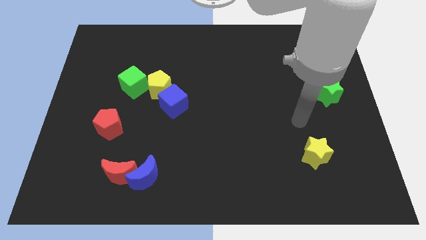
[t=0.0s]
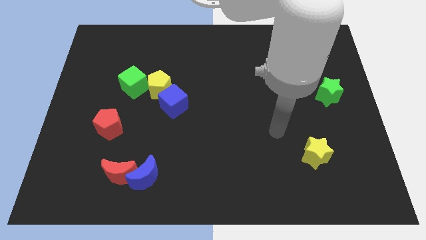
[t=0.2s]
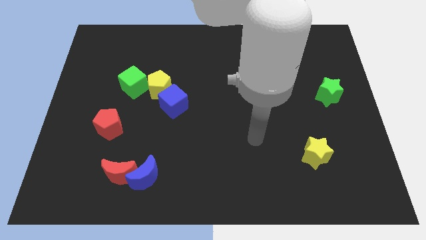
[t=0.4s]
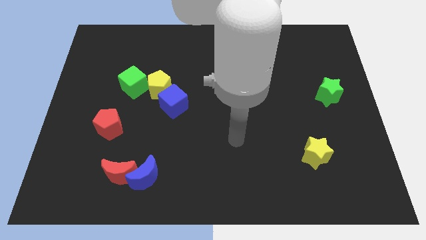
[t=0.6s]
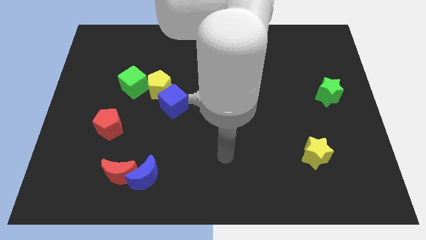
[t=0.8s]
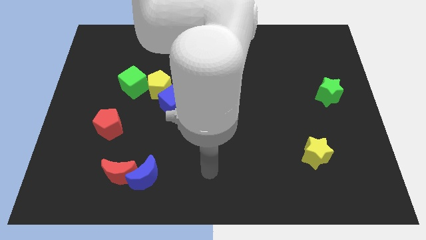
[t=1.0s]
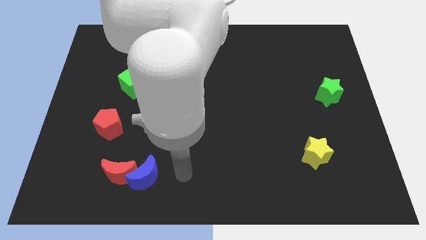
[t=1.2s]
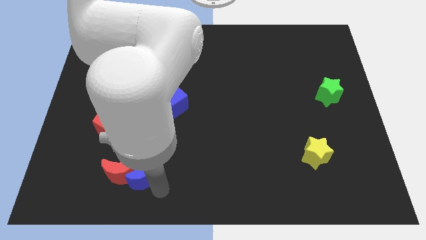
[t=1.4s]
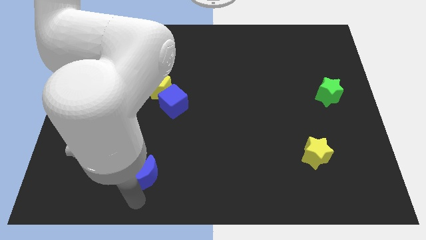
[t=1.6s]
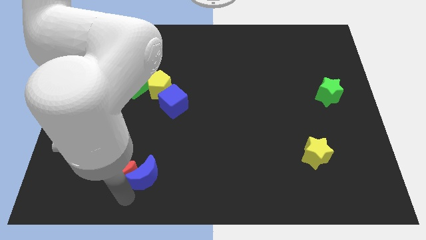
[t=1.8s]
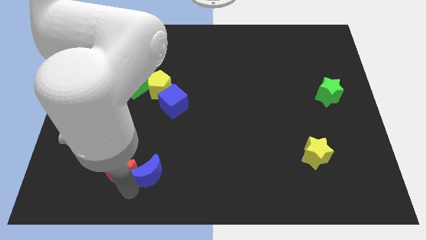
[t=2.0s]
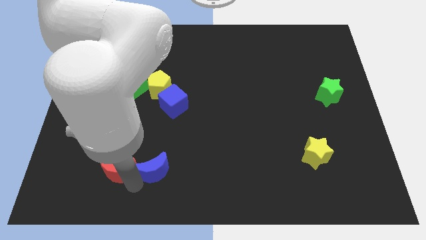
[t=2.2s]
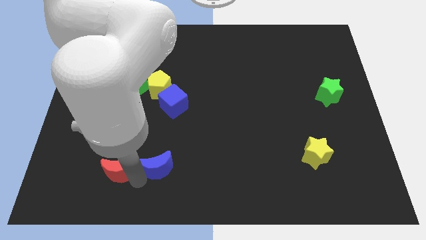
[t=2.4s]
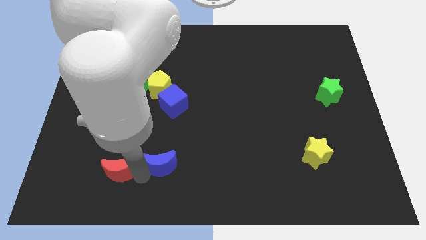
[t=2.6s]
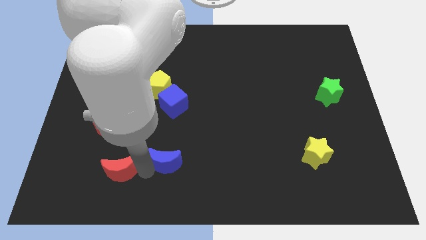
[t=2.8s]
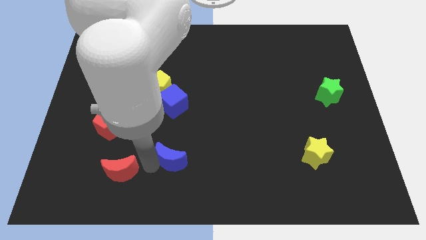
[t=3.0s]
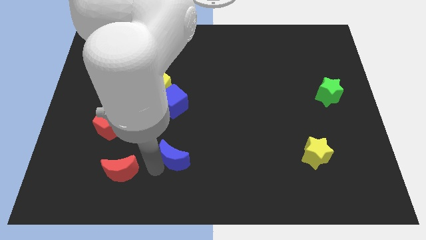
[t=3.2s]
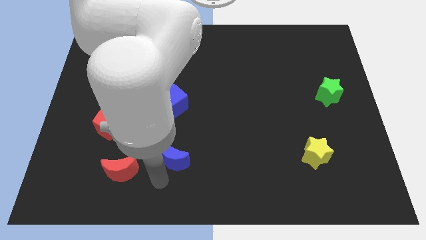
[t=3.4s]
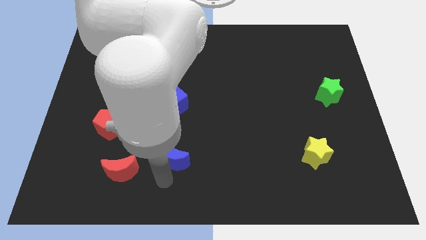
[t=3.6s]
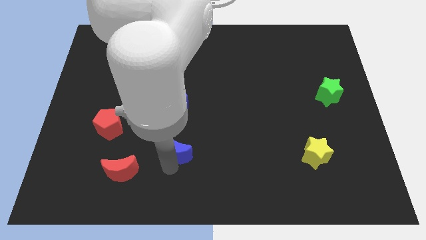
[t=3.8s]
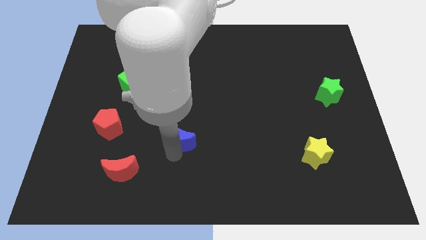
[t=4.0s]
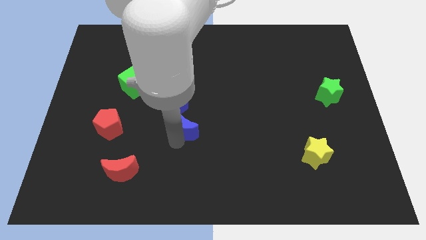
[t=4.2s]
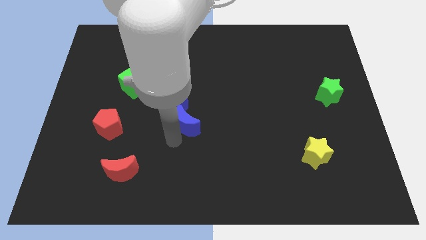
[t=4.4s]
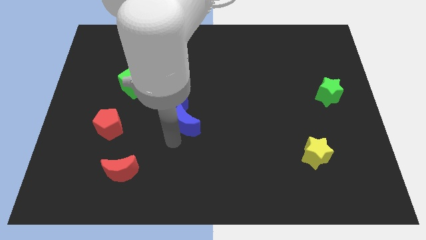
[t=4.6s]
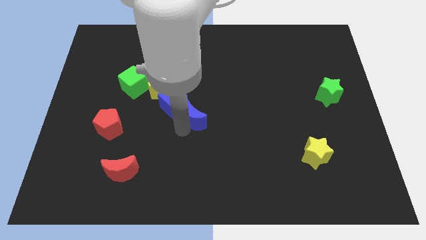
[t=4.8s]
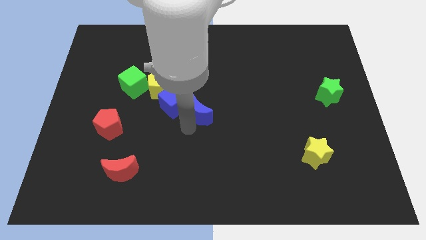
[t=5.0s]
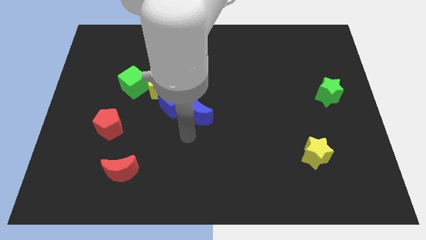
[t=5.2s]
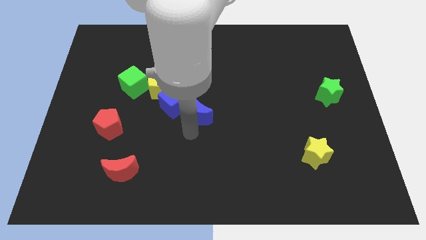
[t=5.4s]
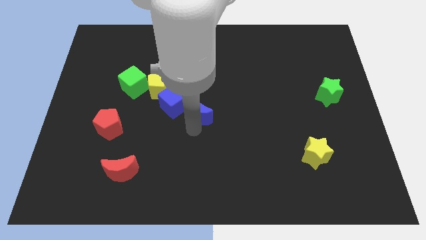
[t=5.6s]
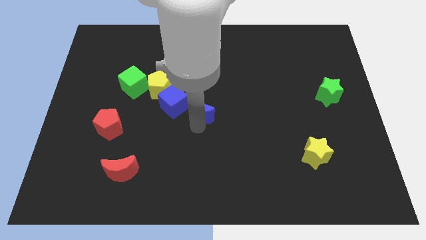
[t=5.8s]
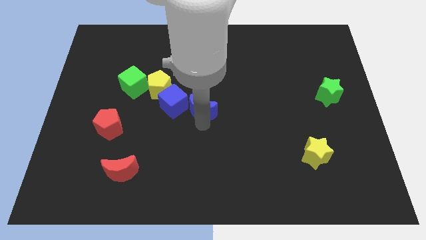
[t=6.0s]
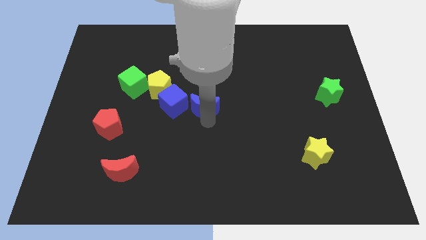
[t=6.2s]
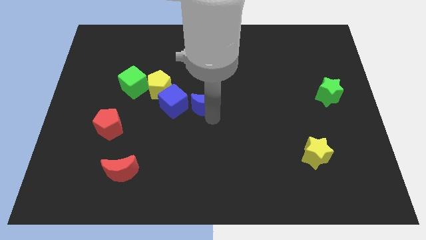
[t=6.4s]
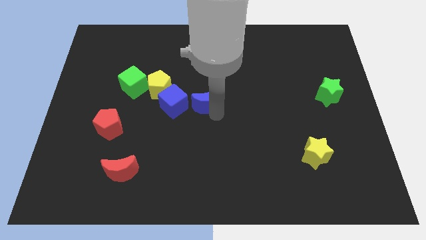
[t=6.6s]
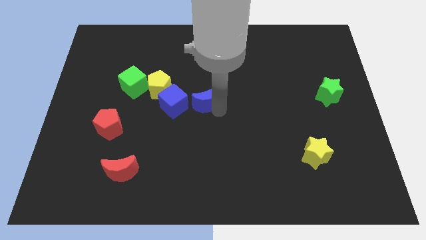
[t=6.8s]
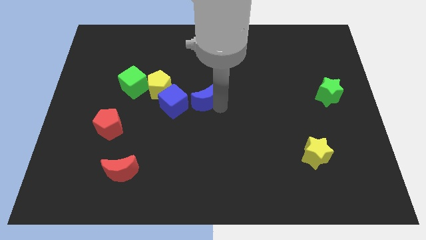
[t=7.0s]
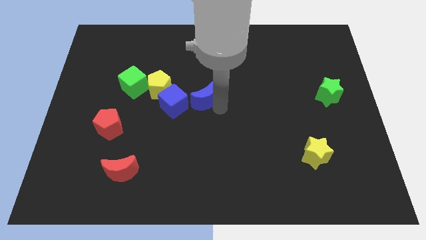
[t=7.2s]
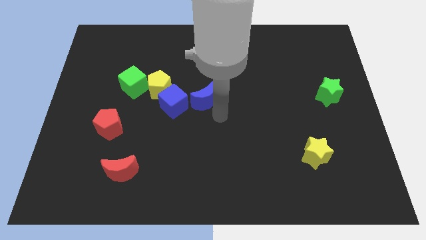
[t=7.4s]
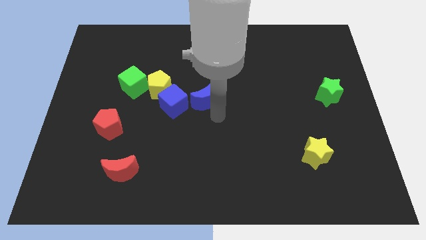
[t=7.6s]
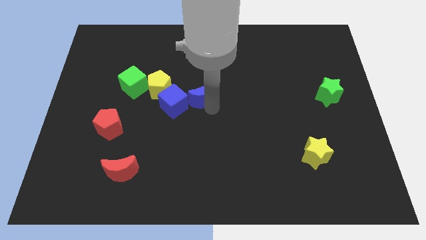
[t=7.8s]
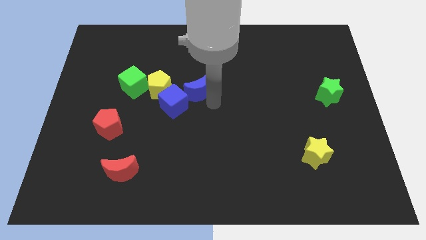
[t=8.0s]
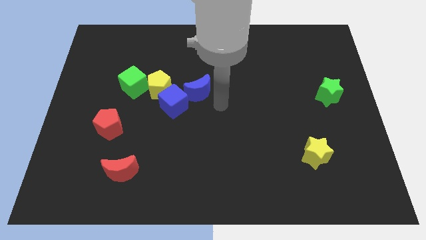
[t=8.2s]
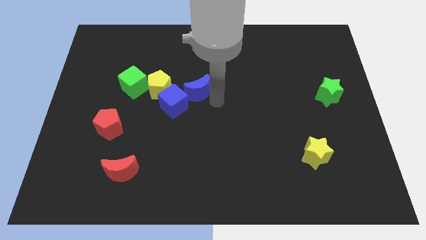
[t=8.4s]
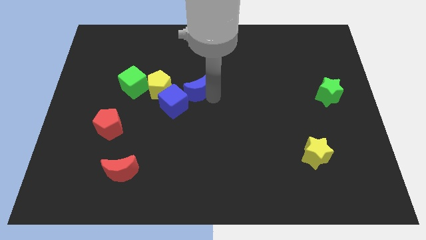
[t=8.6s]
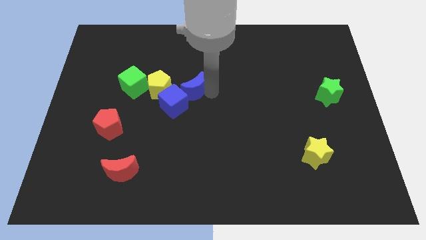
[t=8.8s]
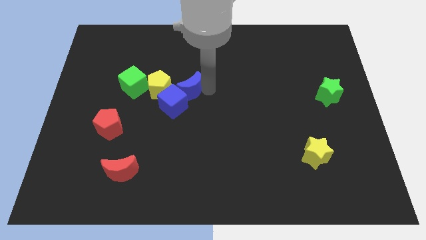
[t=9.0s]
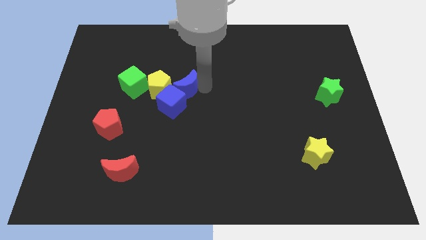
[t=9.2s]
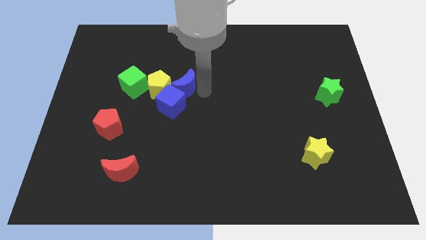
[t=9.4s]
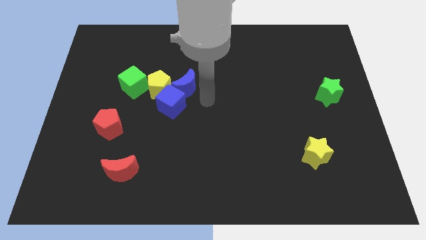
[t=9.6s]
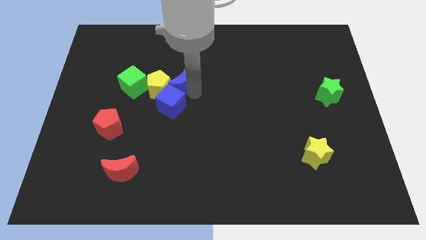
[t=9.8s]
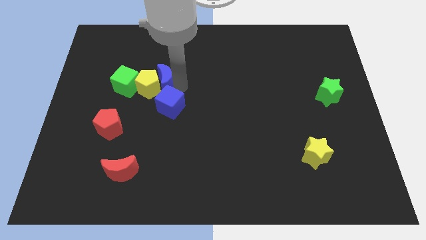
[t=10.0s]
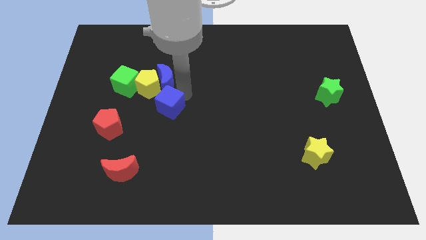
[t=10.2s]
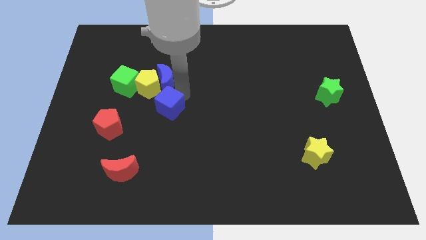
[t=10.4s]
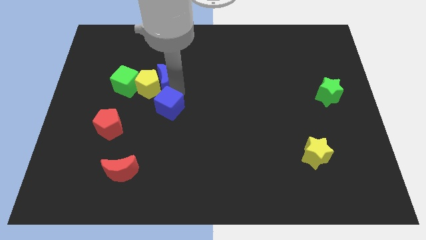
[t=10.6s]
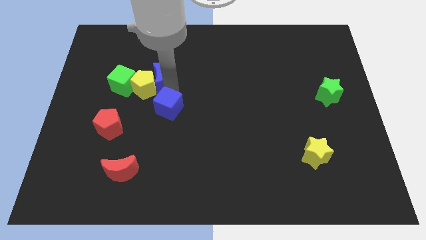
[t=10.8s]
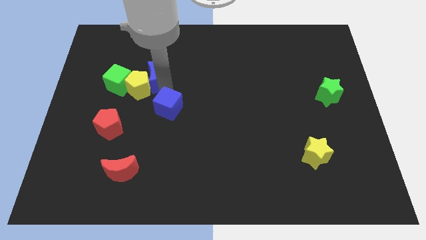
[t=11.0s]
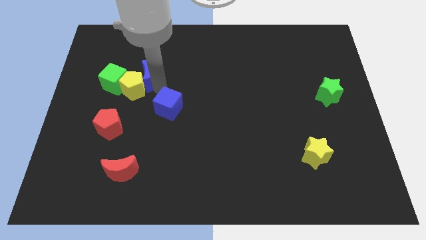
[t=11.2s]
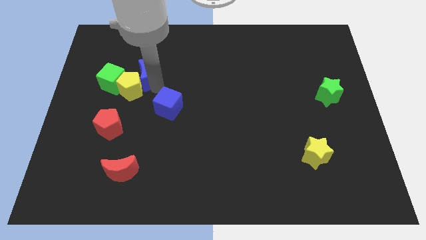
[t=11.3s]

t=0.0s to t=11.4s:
move the blue moon to the top right of the green cube

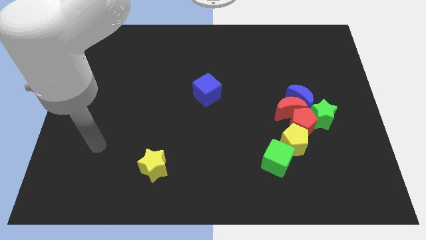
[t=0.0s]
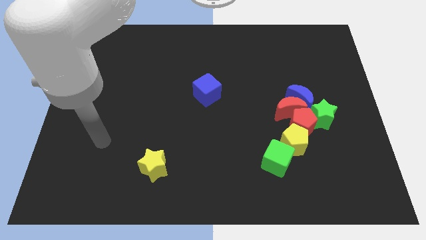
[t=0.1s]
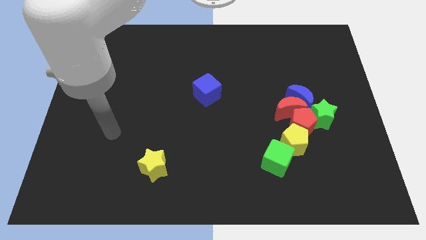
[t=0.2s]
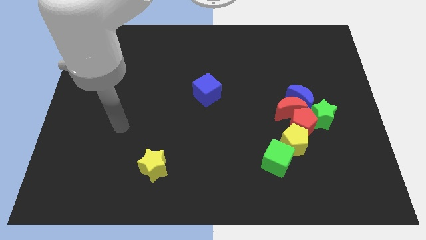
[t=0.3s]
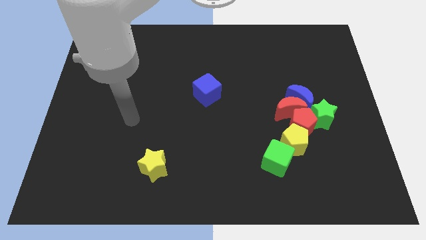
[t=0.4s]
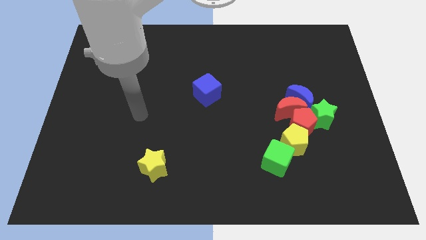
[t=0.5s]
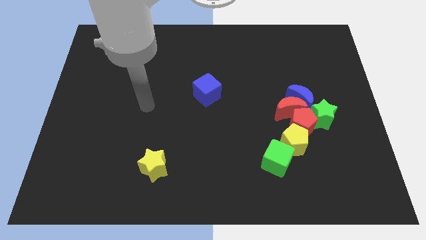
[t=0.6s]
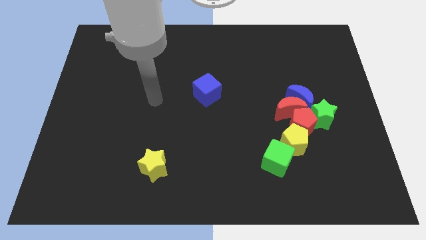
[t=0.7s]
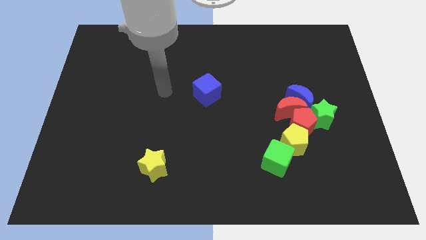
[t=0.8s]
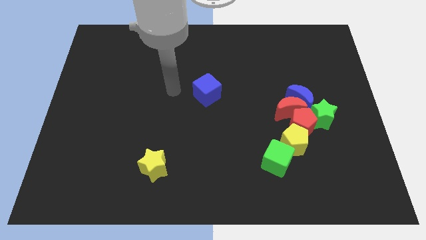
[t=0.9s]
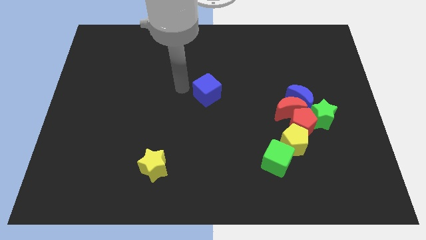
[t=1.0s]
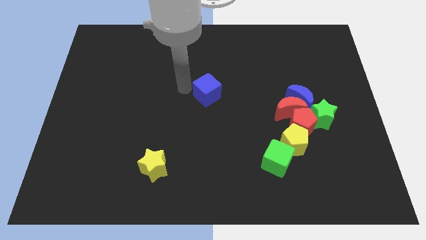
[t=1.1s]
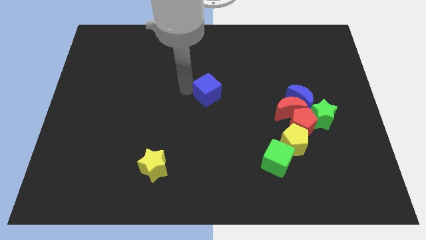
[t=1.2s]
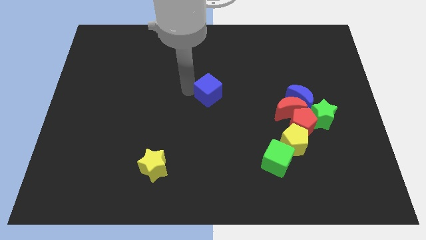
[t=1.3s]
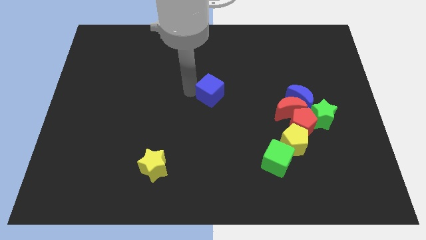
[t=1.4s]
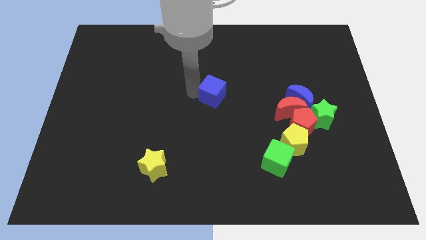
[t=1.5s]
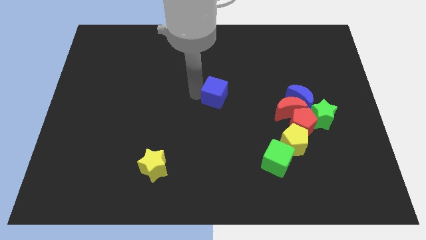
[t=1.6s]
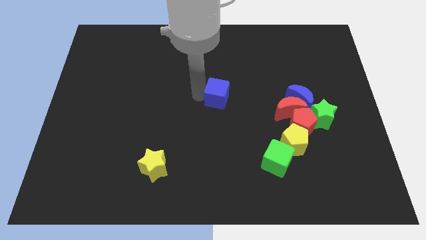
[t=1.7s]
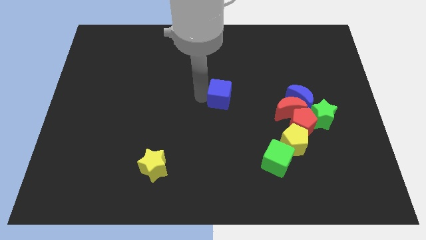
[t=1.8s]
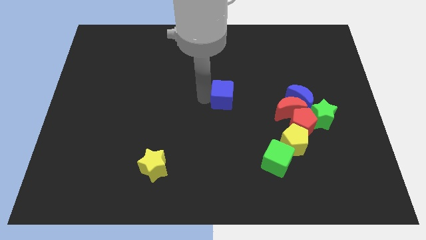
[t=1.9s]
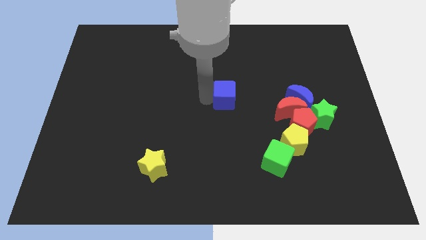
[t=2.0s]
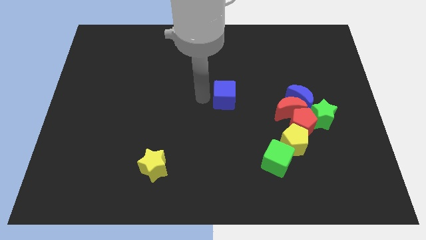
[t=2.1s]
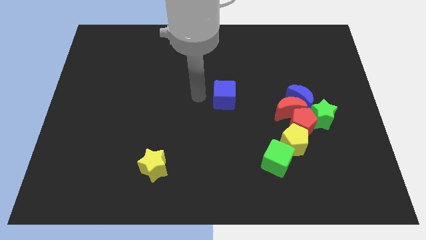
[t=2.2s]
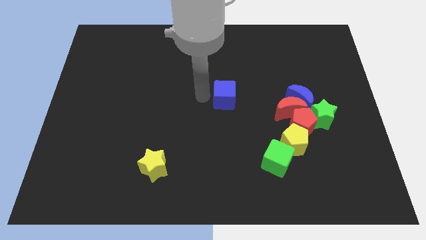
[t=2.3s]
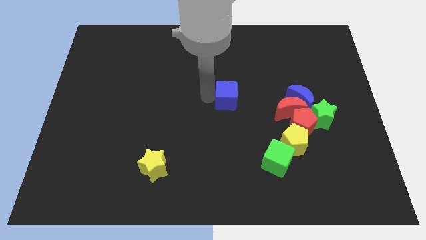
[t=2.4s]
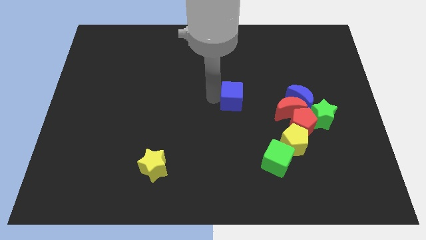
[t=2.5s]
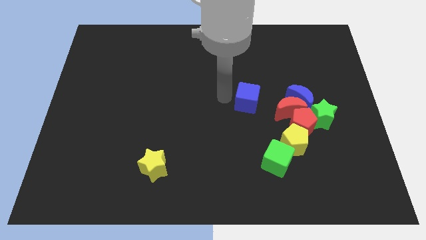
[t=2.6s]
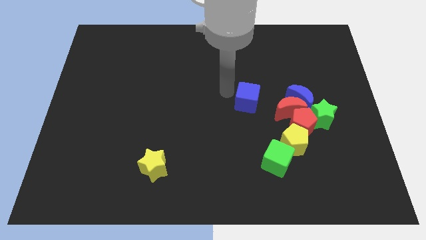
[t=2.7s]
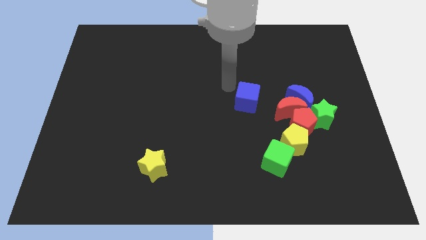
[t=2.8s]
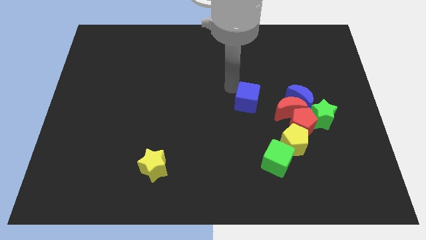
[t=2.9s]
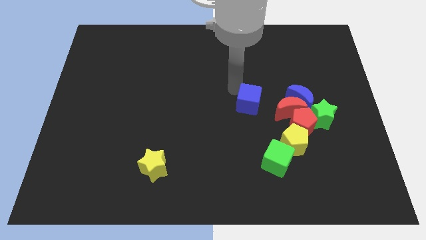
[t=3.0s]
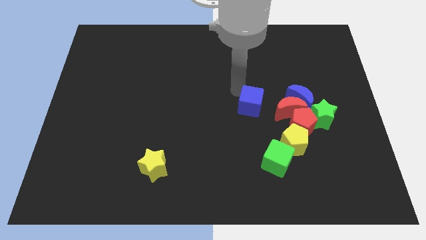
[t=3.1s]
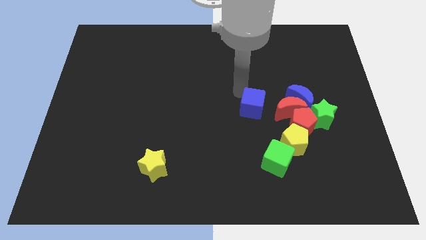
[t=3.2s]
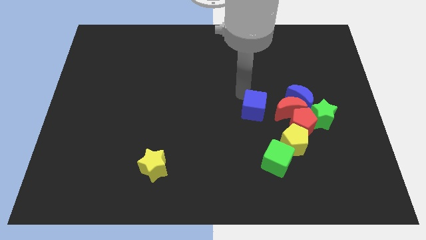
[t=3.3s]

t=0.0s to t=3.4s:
slide the blue cube to the top side of the green cube
